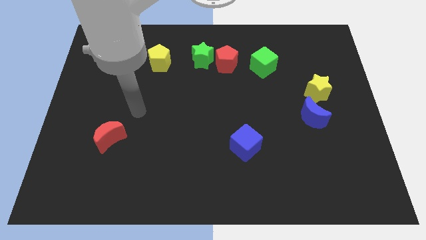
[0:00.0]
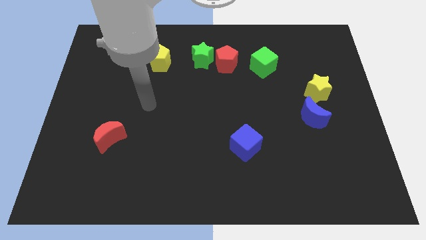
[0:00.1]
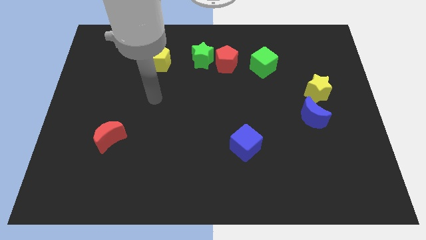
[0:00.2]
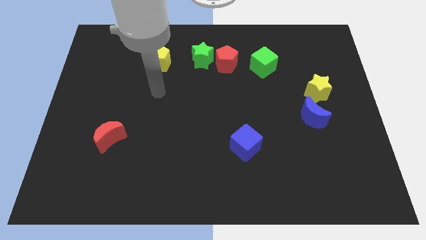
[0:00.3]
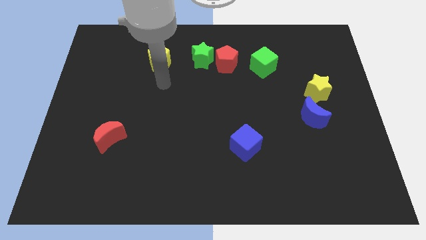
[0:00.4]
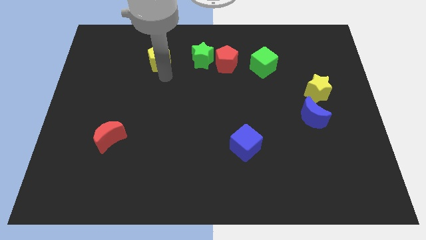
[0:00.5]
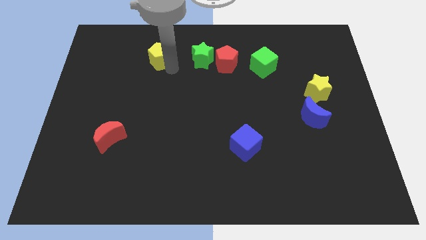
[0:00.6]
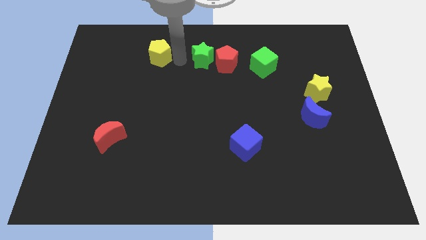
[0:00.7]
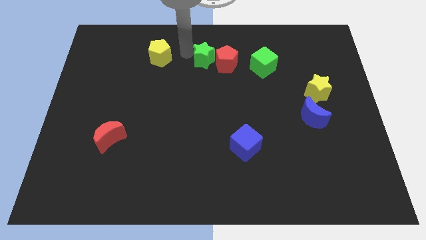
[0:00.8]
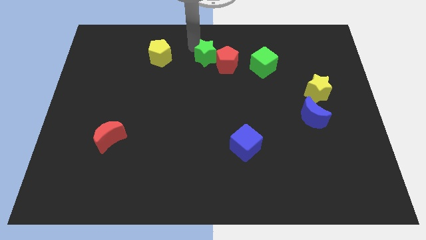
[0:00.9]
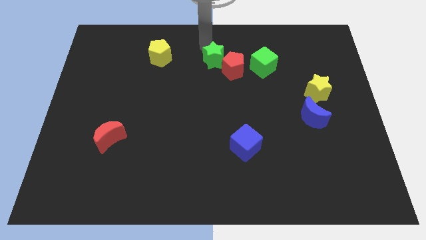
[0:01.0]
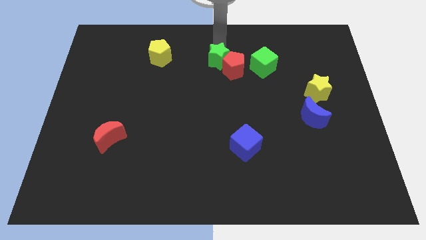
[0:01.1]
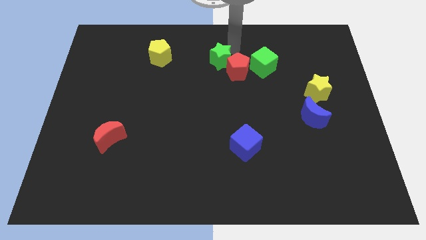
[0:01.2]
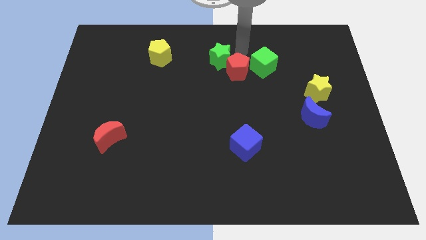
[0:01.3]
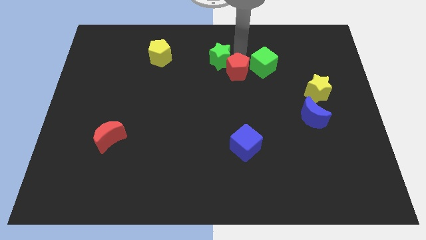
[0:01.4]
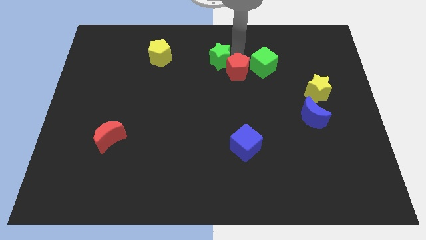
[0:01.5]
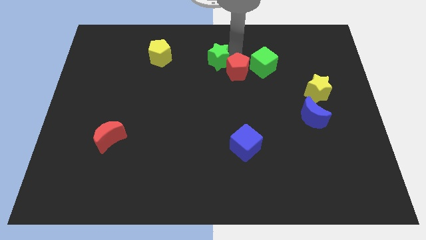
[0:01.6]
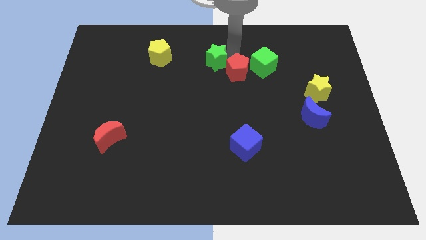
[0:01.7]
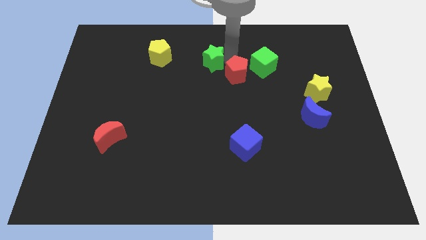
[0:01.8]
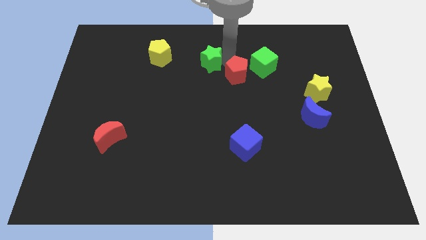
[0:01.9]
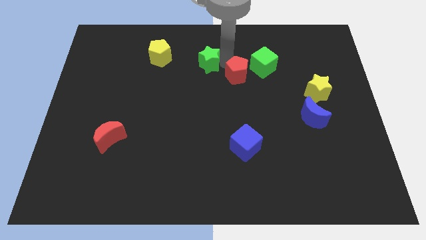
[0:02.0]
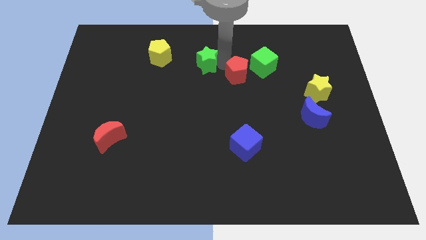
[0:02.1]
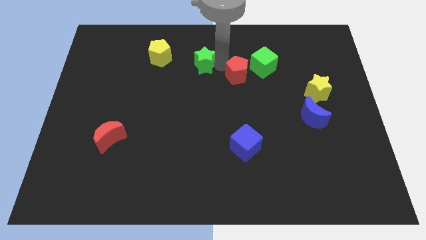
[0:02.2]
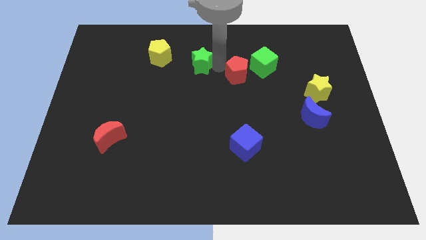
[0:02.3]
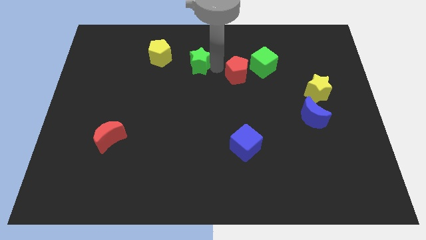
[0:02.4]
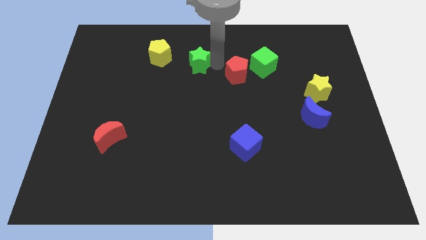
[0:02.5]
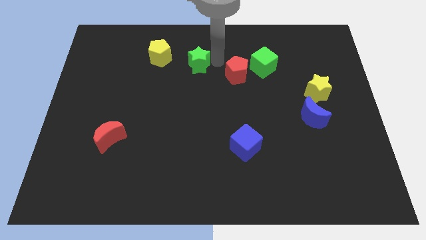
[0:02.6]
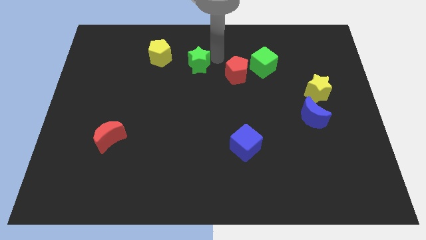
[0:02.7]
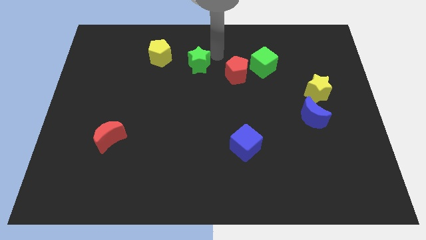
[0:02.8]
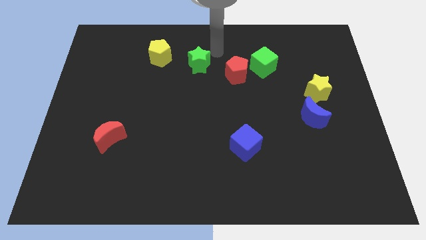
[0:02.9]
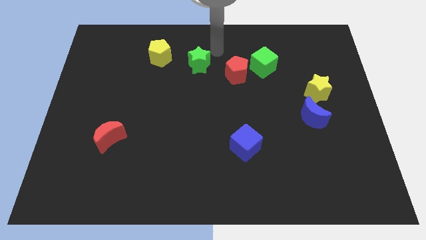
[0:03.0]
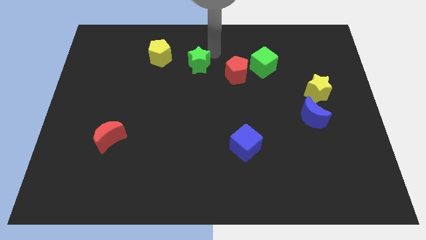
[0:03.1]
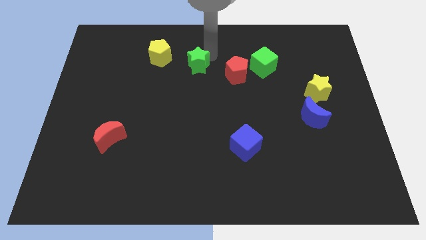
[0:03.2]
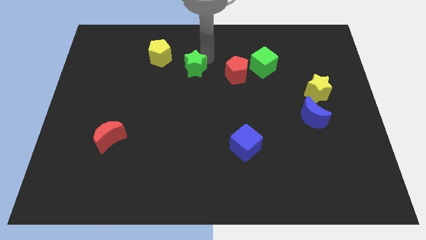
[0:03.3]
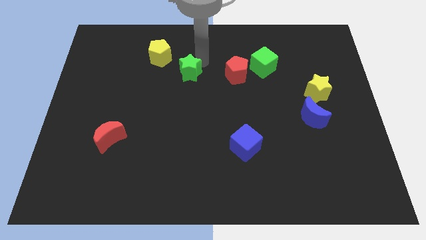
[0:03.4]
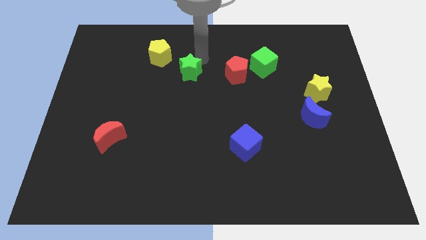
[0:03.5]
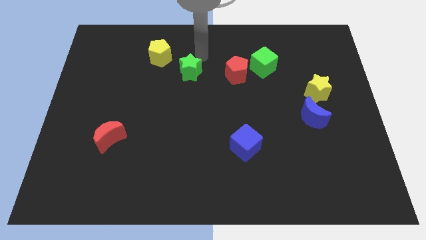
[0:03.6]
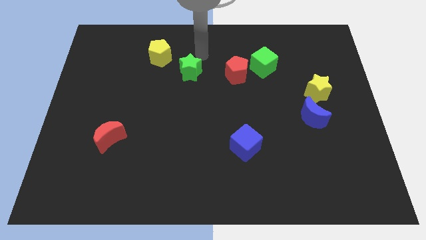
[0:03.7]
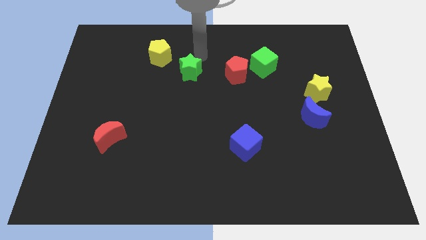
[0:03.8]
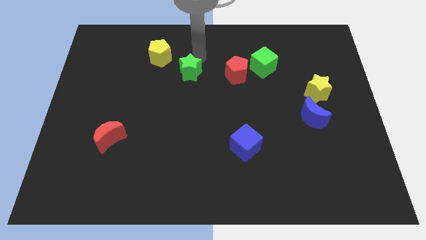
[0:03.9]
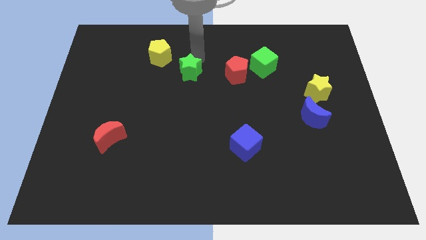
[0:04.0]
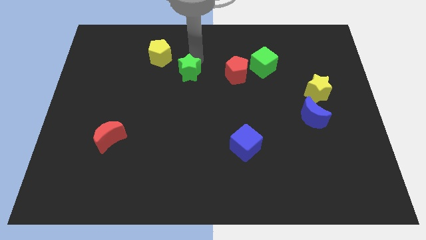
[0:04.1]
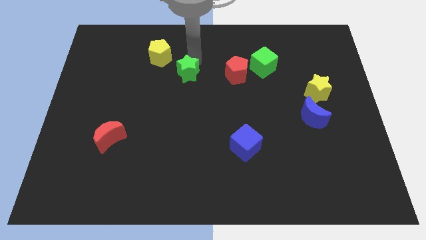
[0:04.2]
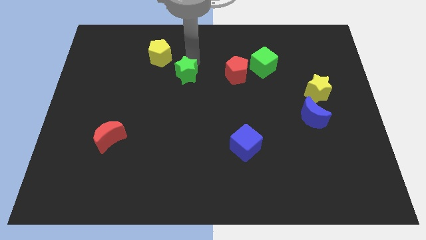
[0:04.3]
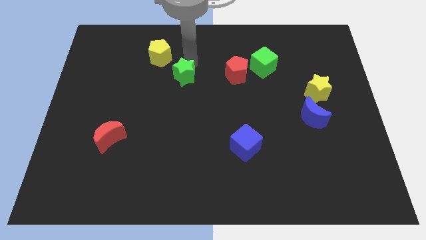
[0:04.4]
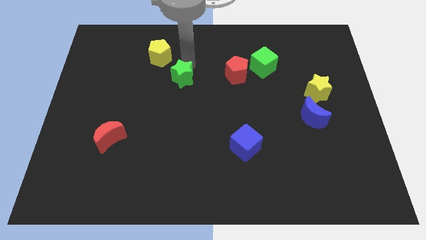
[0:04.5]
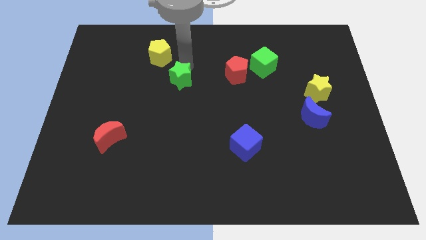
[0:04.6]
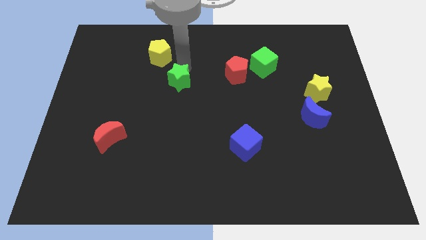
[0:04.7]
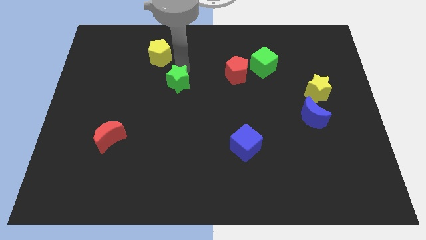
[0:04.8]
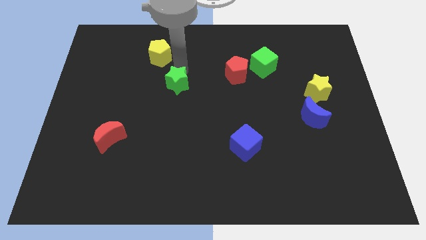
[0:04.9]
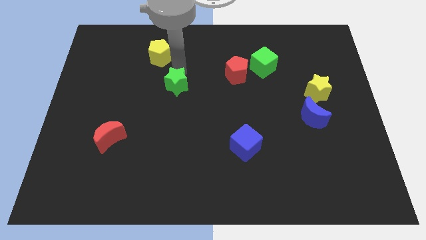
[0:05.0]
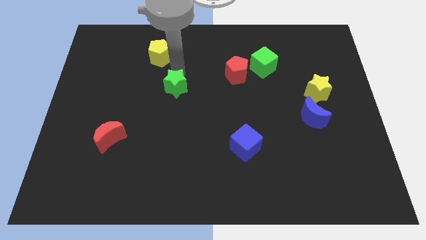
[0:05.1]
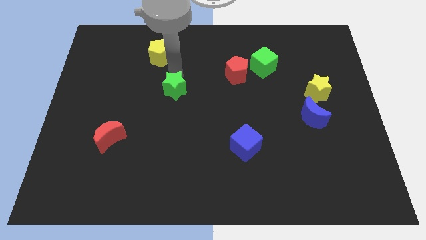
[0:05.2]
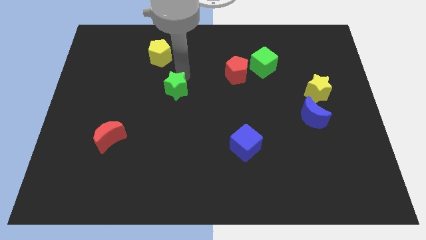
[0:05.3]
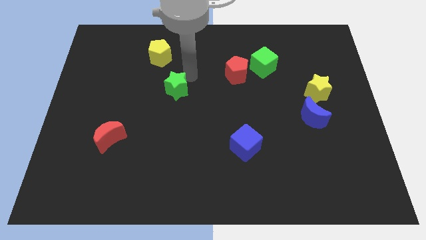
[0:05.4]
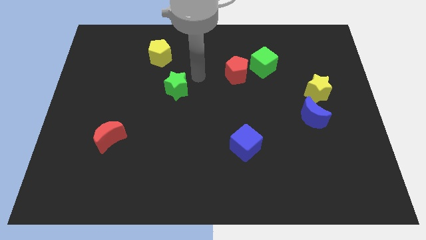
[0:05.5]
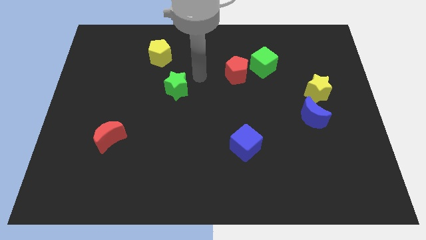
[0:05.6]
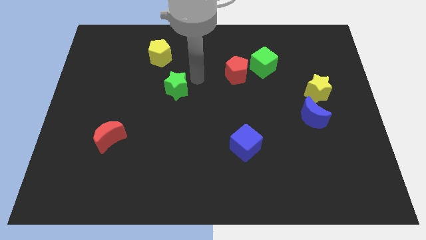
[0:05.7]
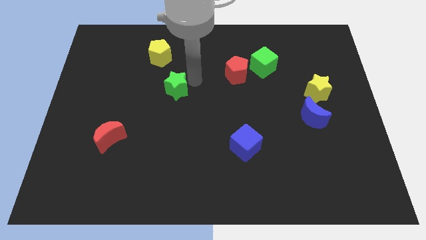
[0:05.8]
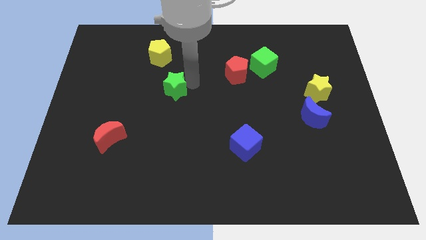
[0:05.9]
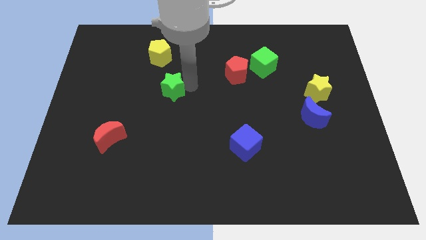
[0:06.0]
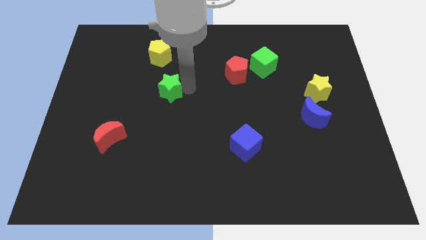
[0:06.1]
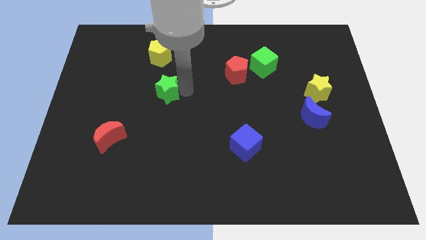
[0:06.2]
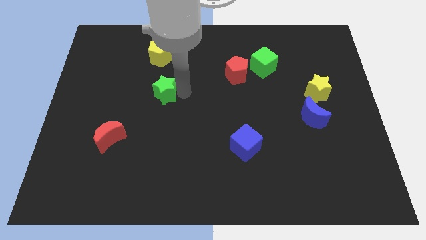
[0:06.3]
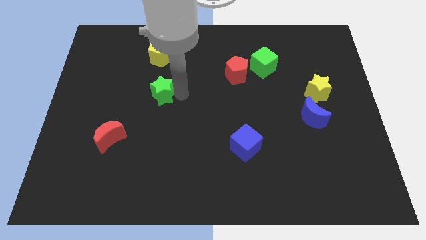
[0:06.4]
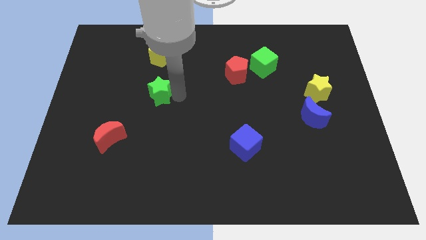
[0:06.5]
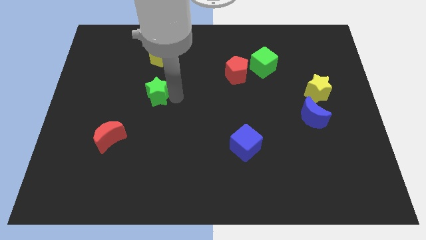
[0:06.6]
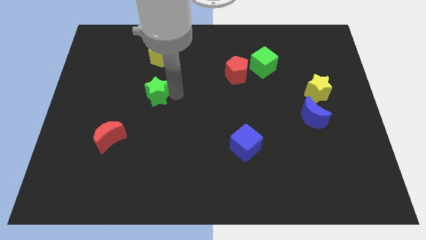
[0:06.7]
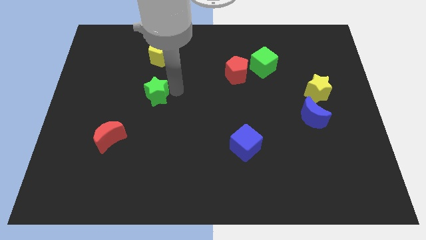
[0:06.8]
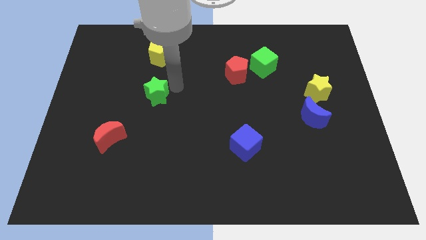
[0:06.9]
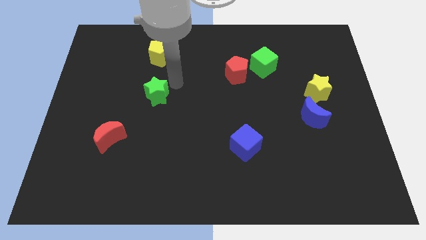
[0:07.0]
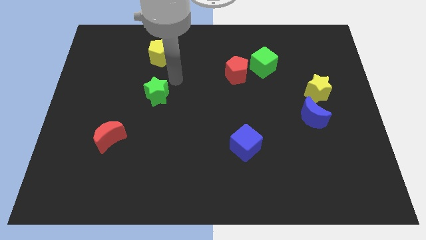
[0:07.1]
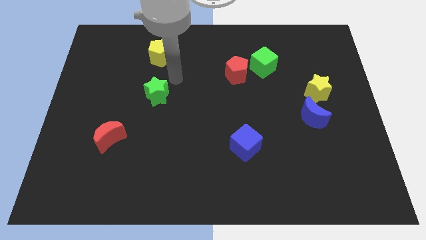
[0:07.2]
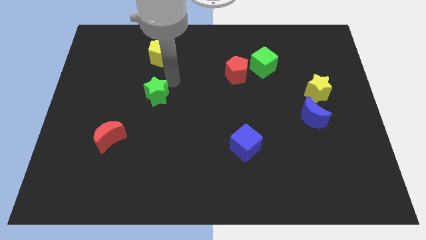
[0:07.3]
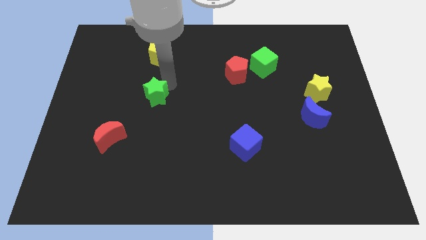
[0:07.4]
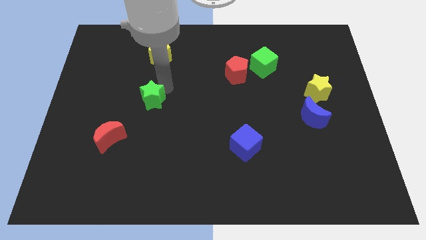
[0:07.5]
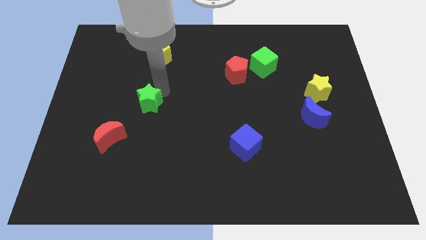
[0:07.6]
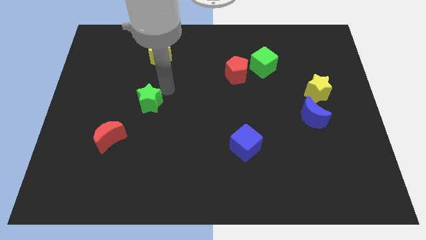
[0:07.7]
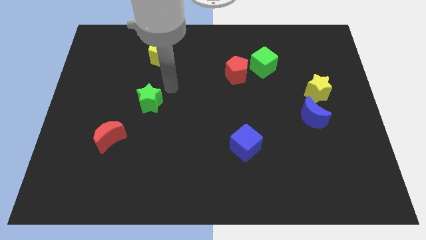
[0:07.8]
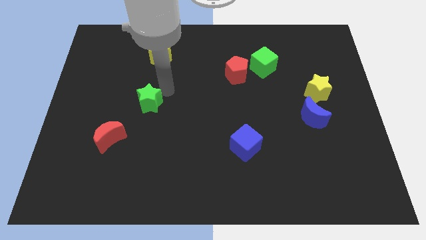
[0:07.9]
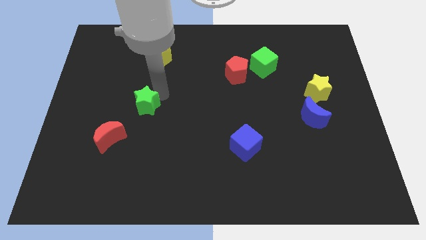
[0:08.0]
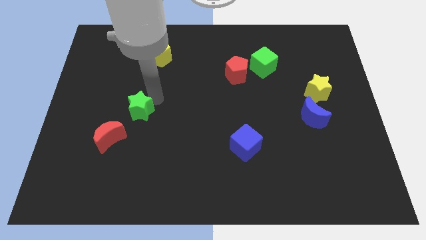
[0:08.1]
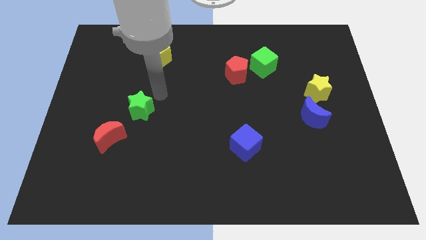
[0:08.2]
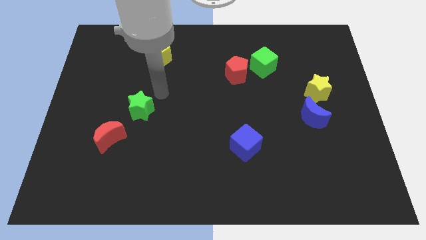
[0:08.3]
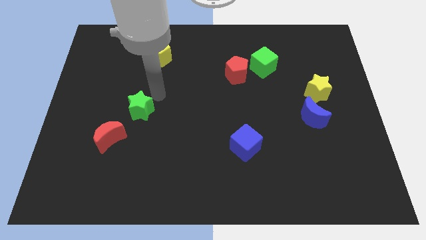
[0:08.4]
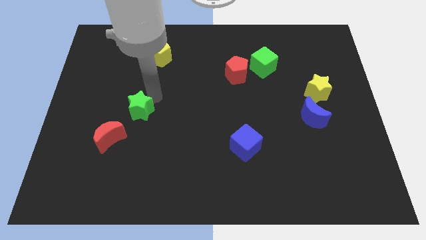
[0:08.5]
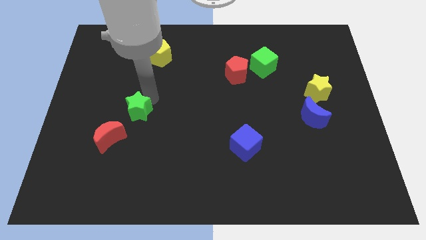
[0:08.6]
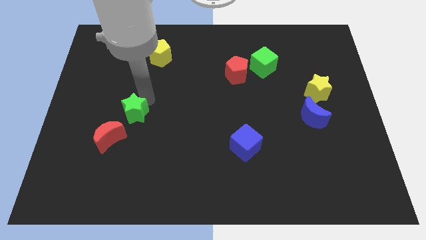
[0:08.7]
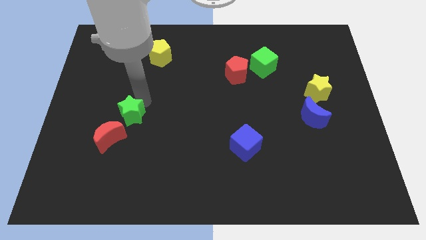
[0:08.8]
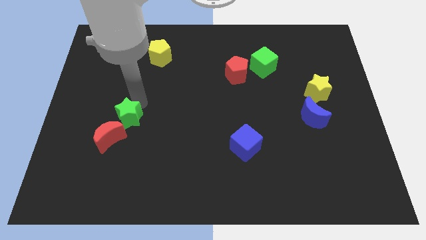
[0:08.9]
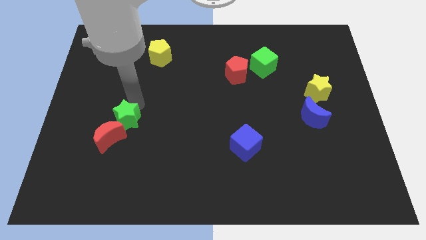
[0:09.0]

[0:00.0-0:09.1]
slide the green star towards the red moon
